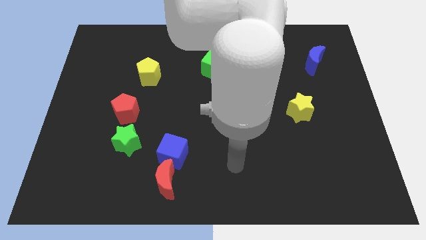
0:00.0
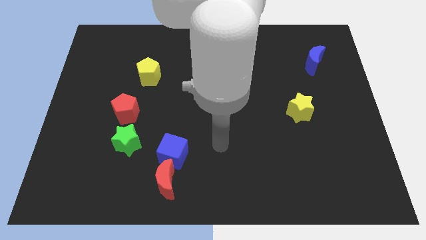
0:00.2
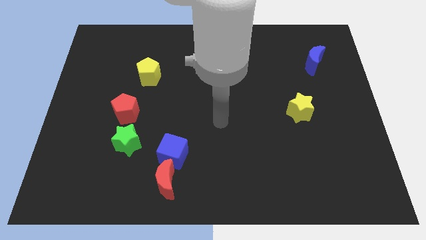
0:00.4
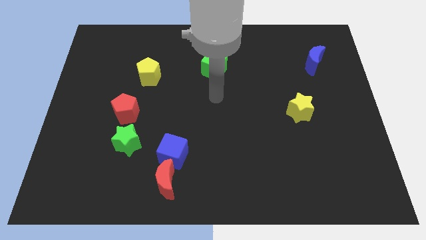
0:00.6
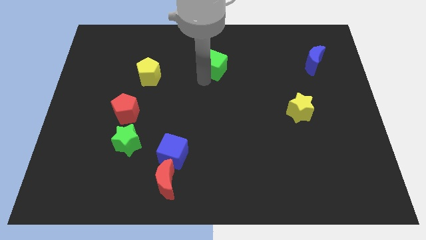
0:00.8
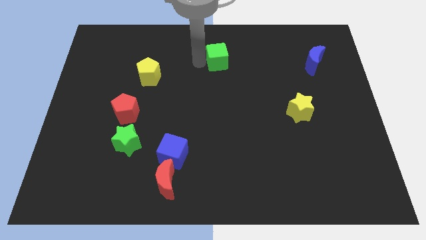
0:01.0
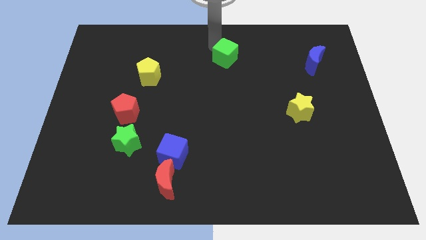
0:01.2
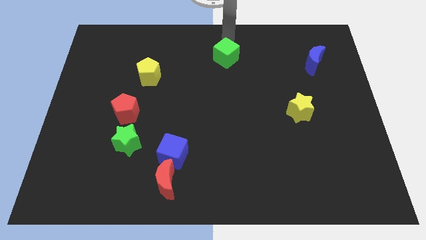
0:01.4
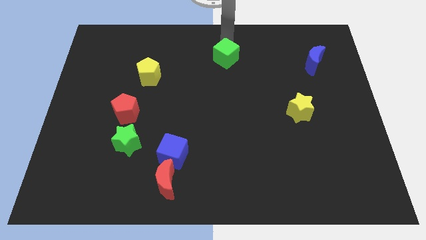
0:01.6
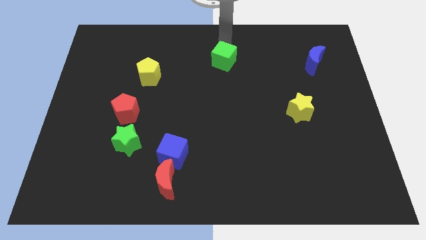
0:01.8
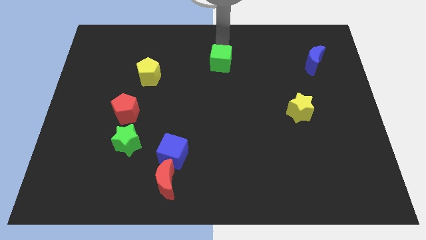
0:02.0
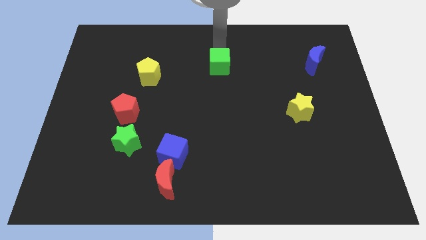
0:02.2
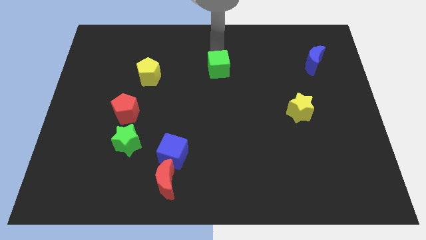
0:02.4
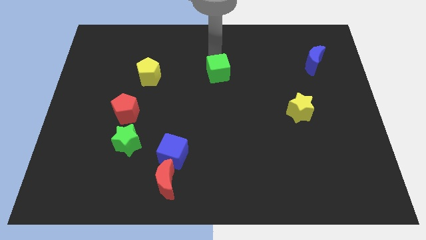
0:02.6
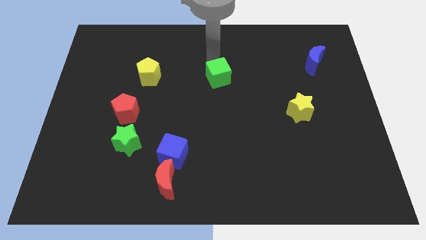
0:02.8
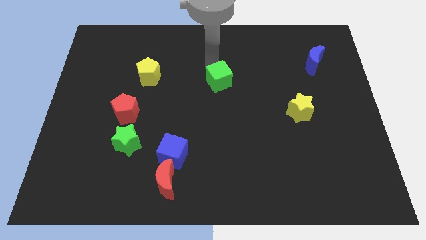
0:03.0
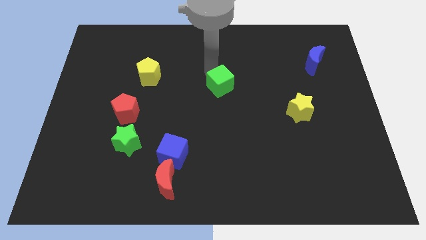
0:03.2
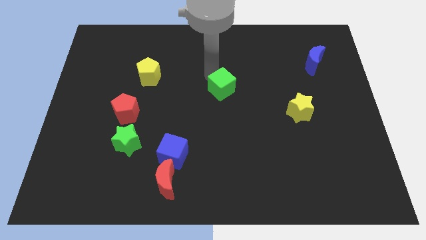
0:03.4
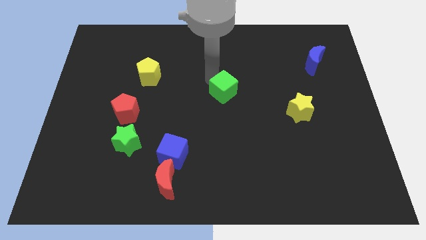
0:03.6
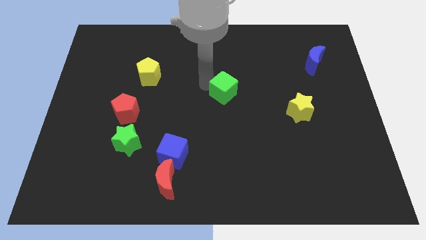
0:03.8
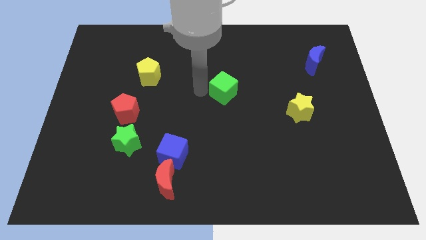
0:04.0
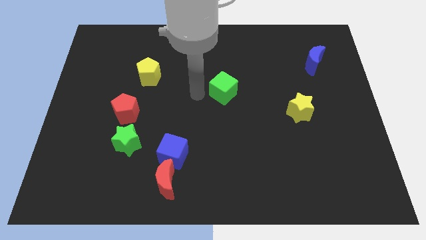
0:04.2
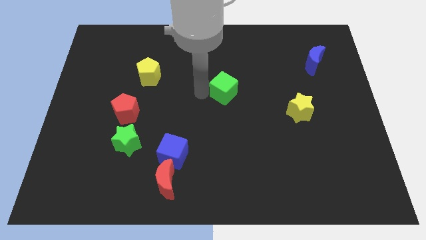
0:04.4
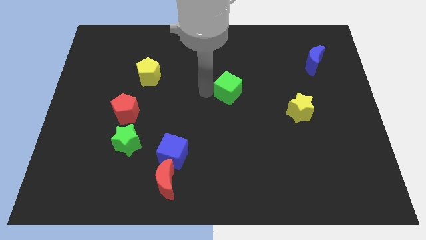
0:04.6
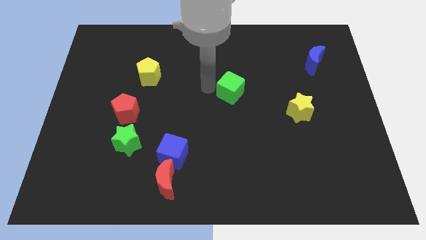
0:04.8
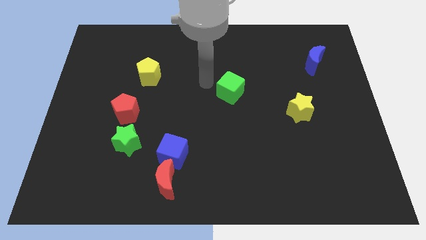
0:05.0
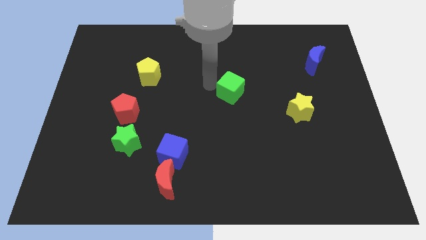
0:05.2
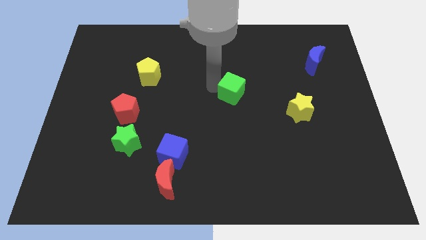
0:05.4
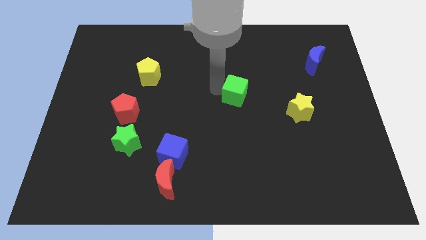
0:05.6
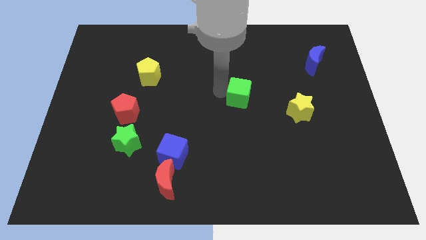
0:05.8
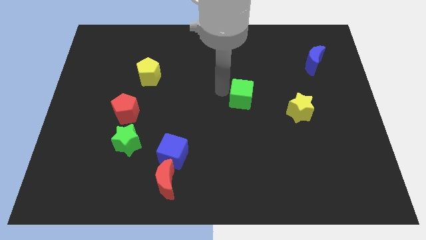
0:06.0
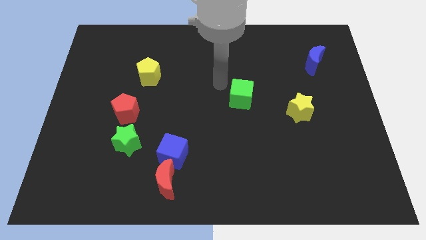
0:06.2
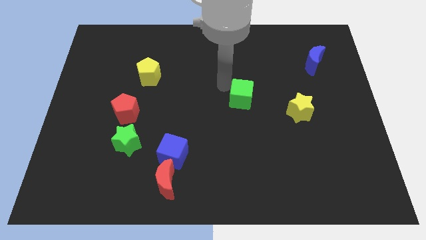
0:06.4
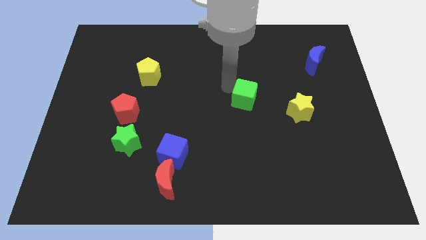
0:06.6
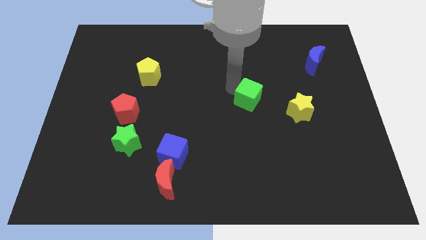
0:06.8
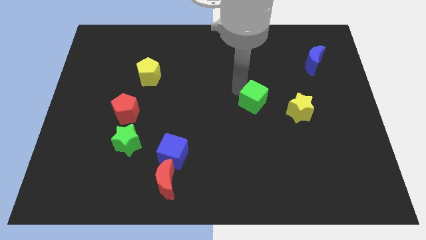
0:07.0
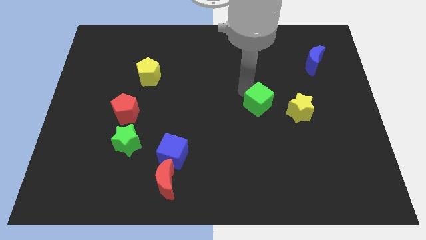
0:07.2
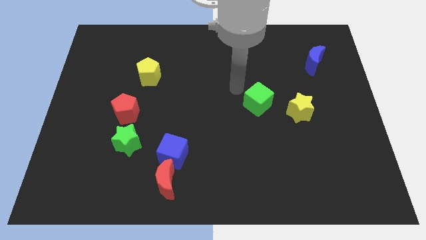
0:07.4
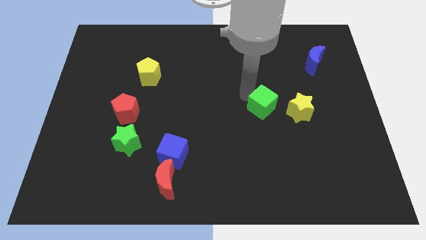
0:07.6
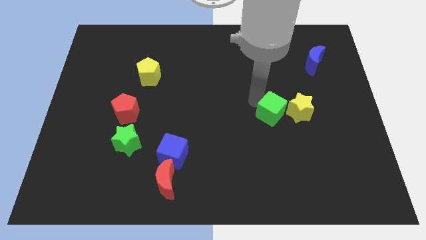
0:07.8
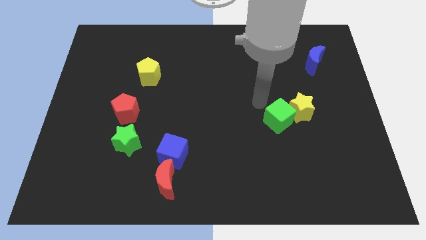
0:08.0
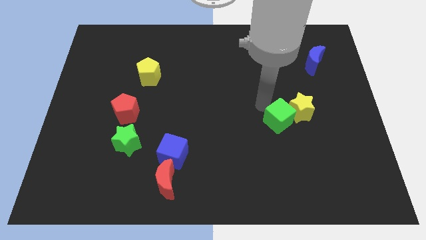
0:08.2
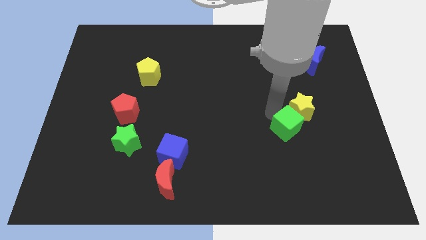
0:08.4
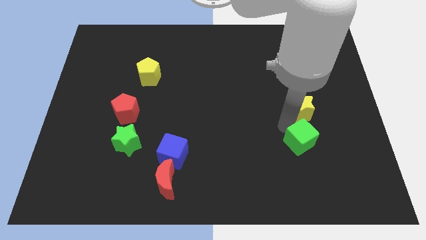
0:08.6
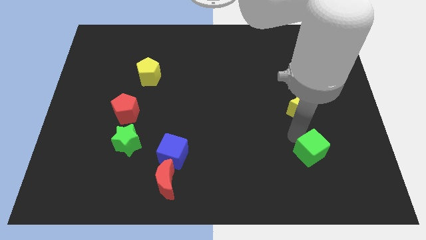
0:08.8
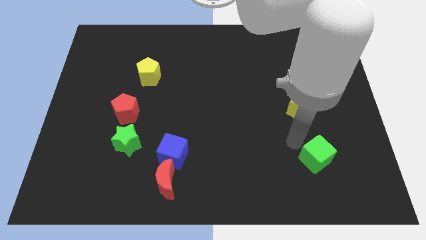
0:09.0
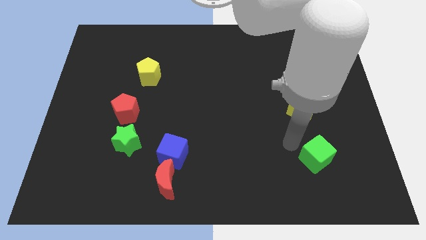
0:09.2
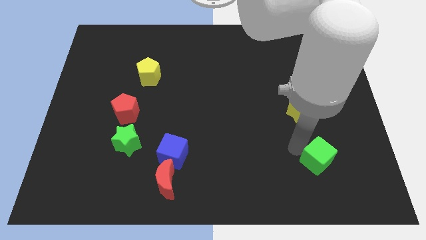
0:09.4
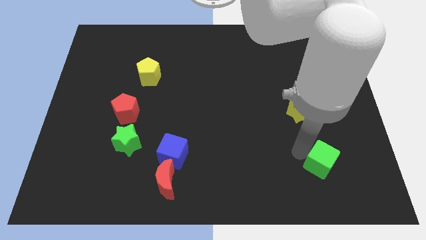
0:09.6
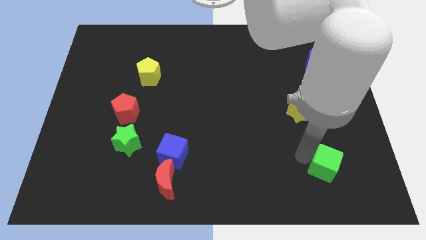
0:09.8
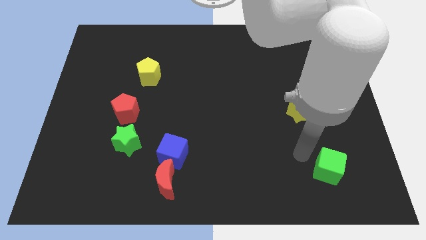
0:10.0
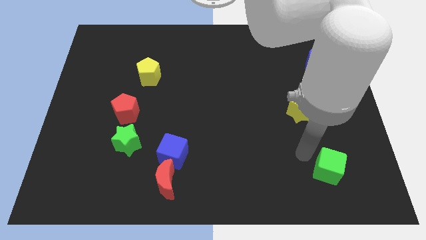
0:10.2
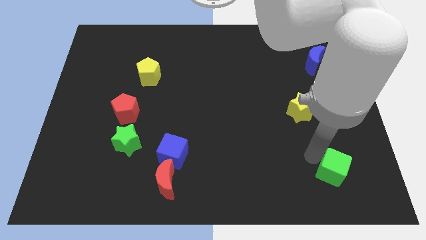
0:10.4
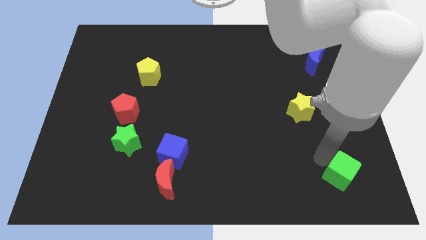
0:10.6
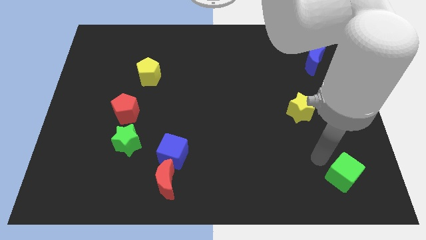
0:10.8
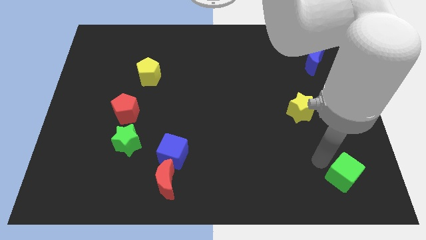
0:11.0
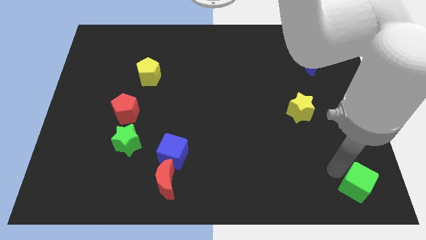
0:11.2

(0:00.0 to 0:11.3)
push the green cube to the lower right corner

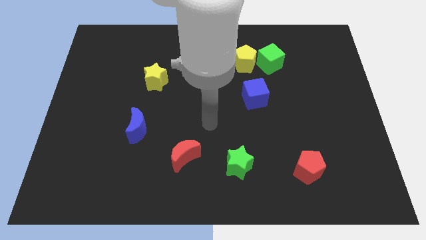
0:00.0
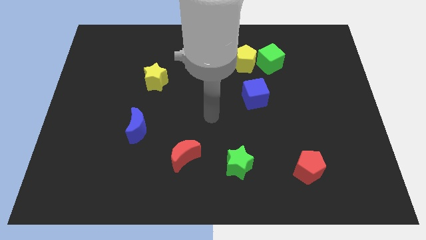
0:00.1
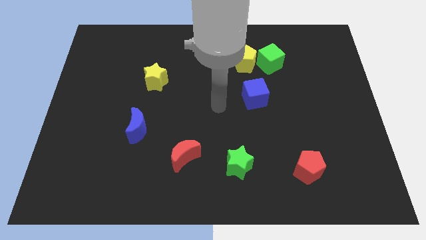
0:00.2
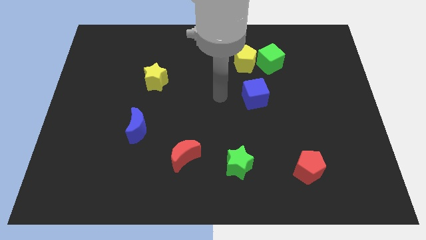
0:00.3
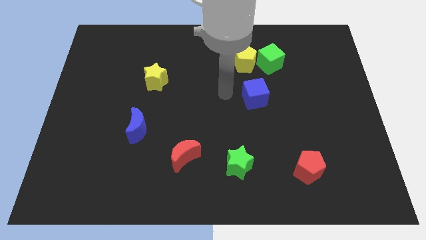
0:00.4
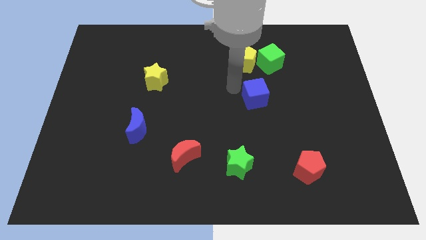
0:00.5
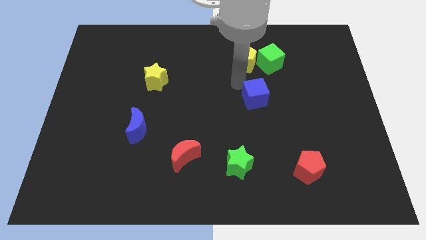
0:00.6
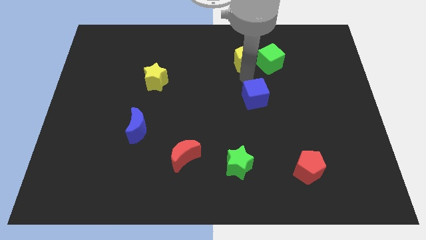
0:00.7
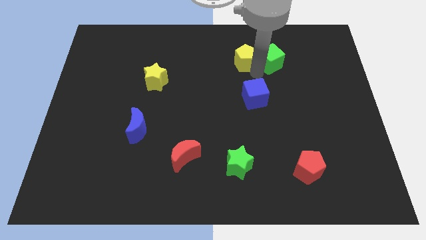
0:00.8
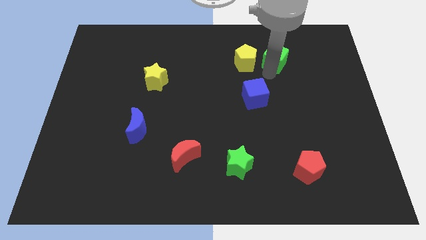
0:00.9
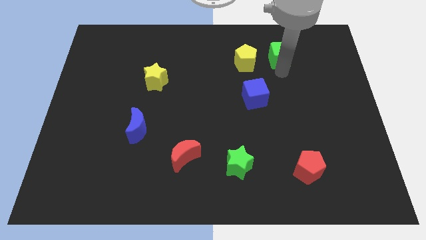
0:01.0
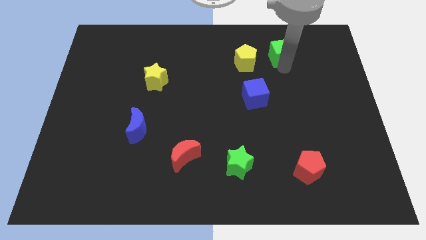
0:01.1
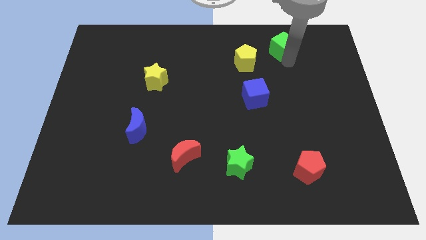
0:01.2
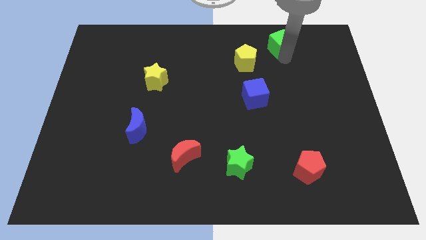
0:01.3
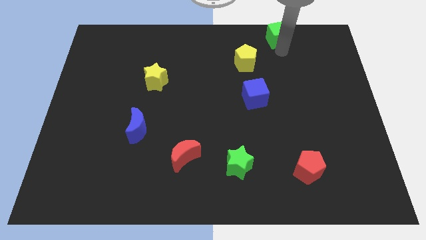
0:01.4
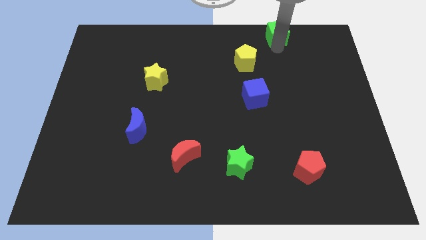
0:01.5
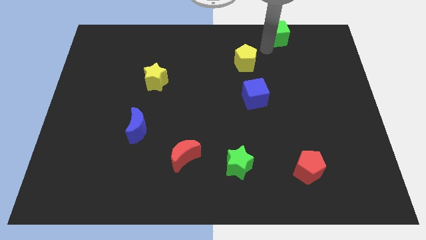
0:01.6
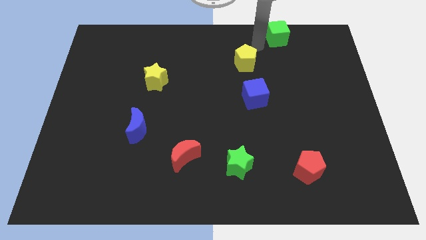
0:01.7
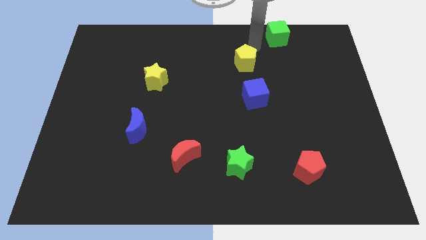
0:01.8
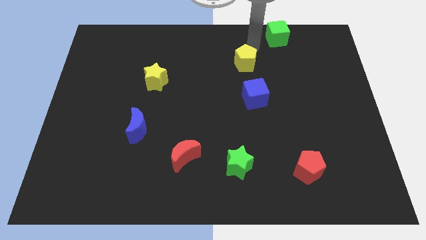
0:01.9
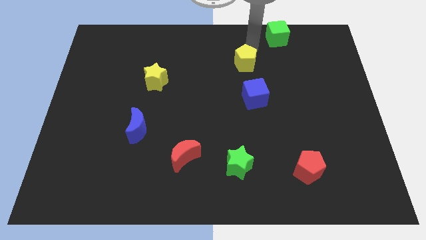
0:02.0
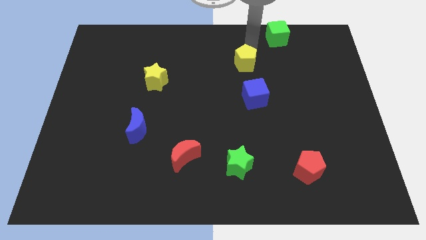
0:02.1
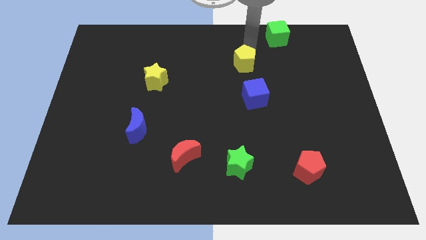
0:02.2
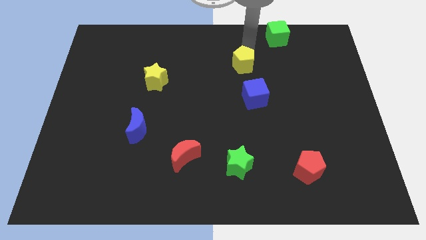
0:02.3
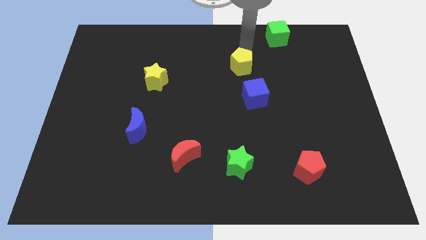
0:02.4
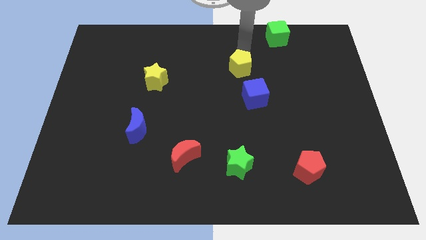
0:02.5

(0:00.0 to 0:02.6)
move the yellow pentagon to the center
